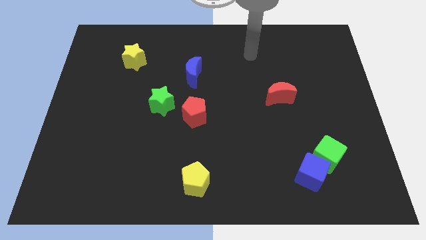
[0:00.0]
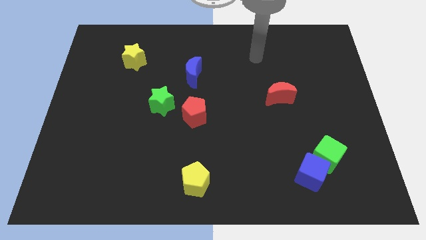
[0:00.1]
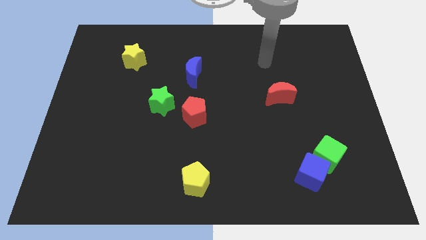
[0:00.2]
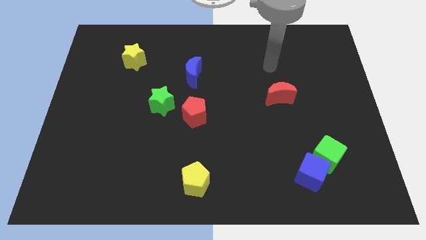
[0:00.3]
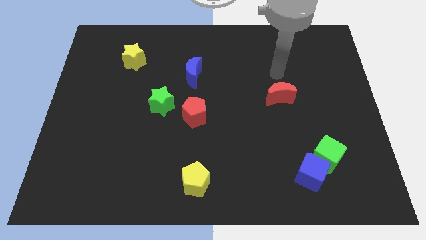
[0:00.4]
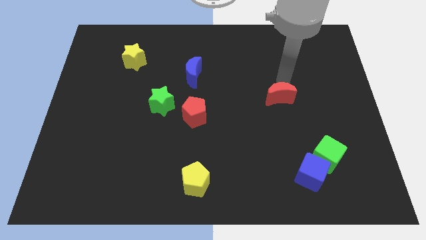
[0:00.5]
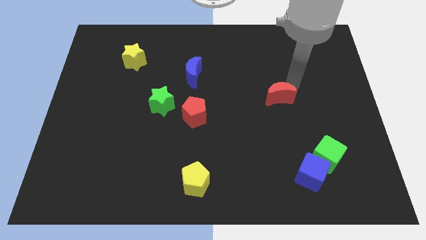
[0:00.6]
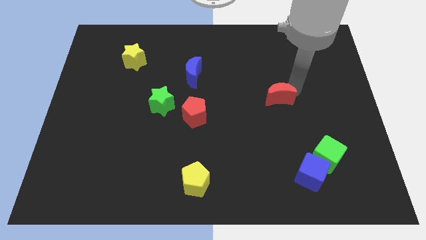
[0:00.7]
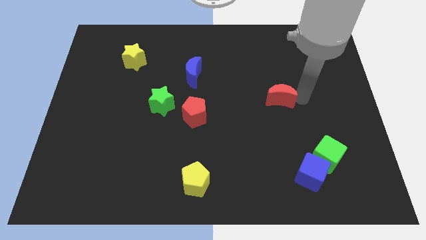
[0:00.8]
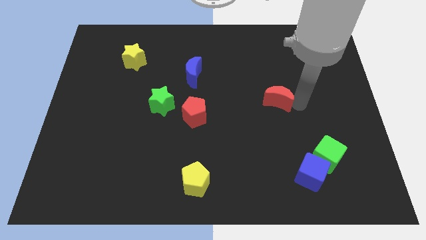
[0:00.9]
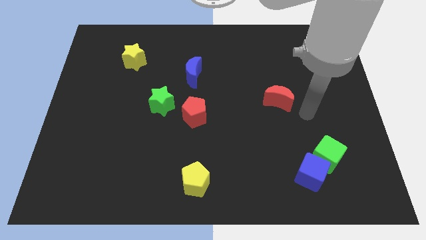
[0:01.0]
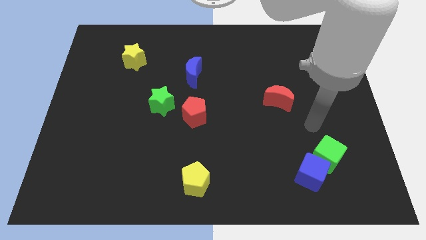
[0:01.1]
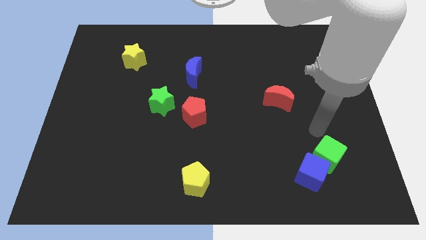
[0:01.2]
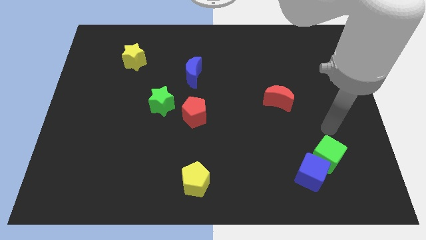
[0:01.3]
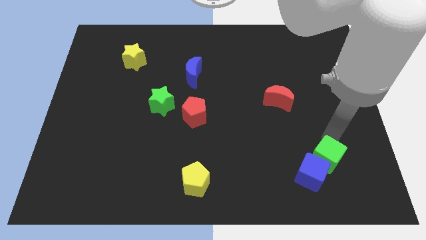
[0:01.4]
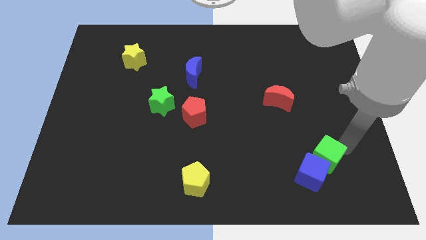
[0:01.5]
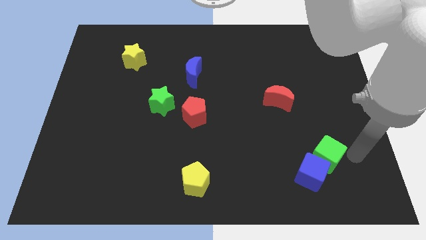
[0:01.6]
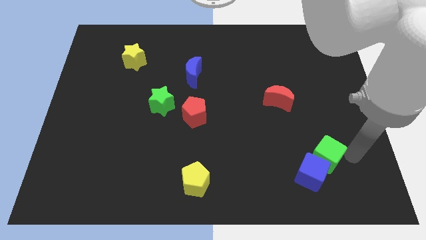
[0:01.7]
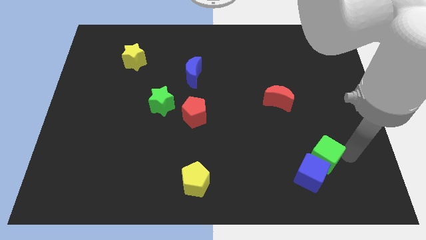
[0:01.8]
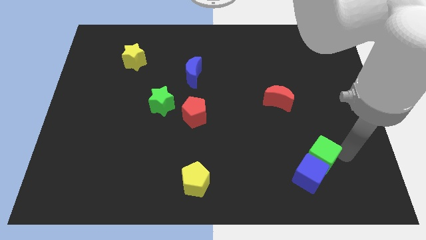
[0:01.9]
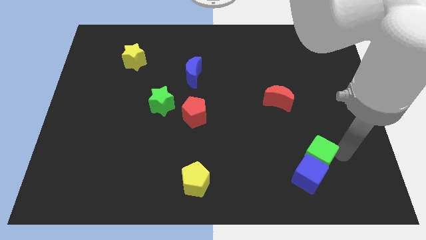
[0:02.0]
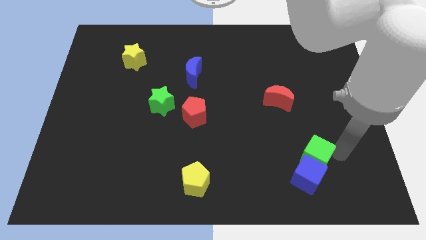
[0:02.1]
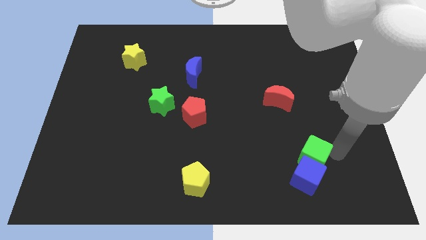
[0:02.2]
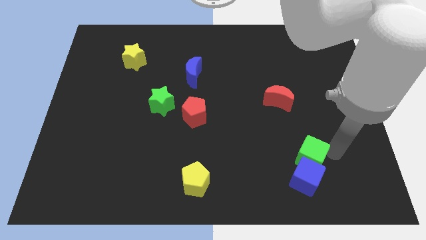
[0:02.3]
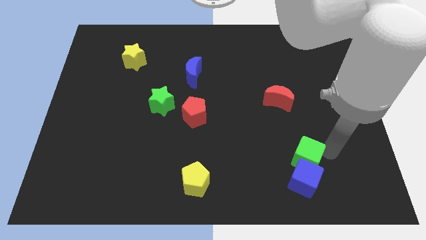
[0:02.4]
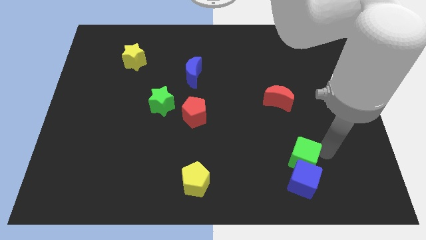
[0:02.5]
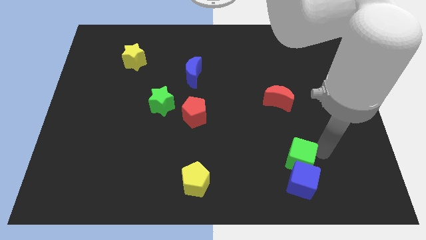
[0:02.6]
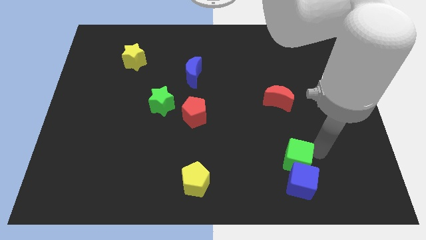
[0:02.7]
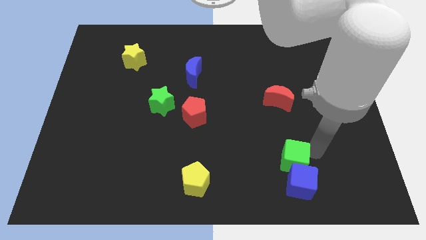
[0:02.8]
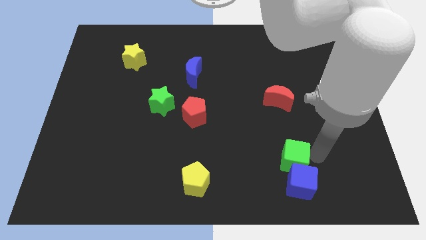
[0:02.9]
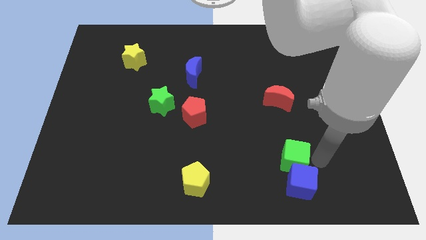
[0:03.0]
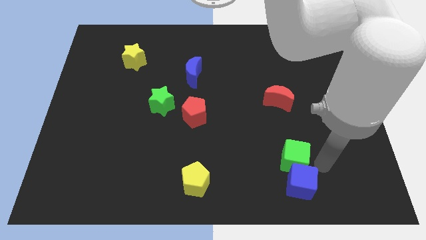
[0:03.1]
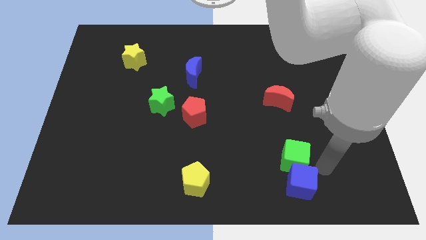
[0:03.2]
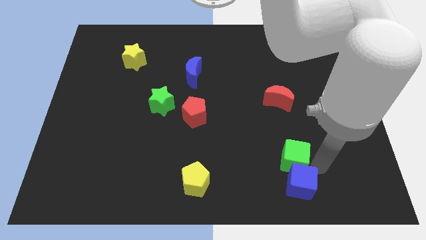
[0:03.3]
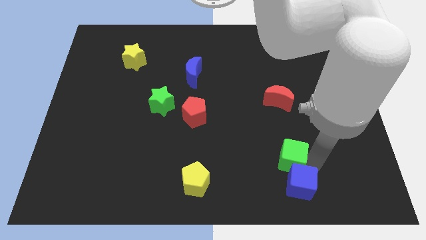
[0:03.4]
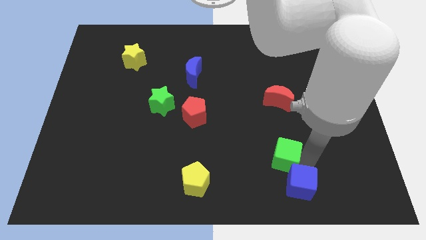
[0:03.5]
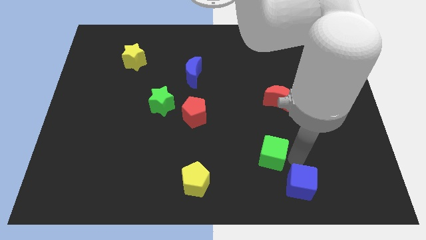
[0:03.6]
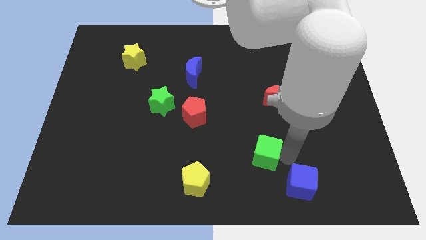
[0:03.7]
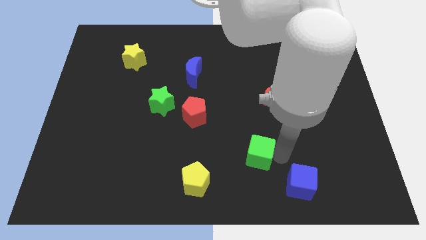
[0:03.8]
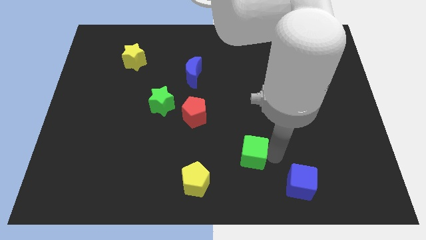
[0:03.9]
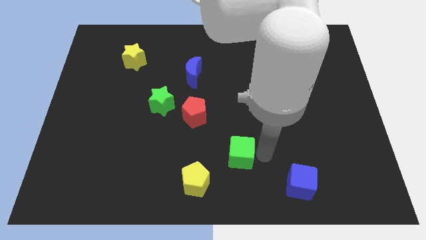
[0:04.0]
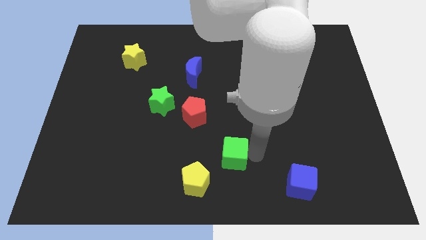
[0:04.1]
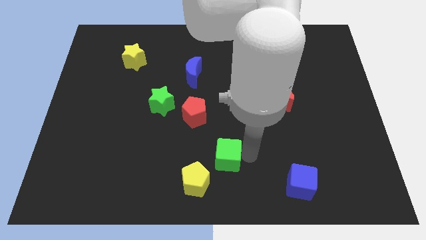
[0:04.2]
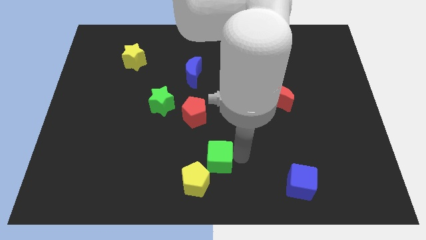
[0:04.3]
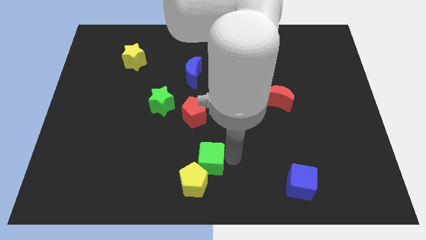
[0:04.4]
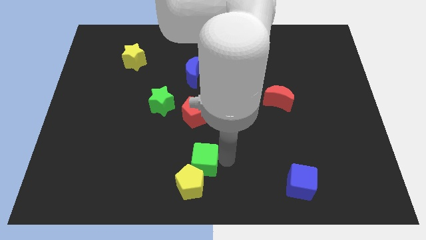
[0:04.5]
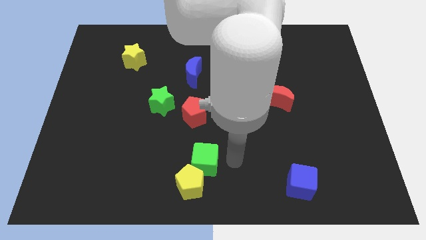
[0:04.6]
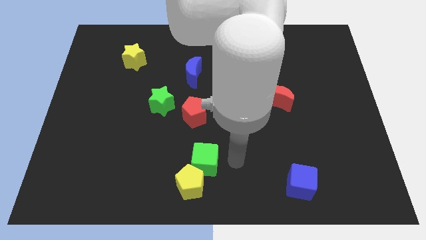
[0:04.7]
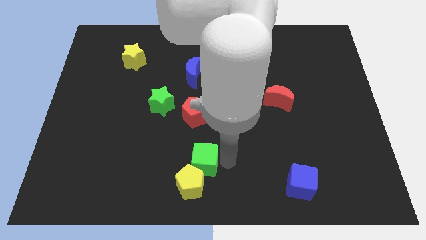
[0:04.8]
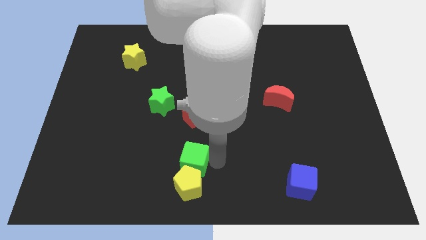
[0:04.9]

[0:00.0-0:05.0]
push the green cube to the top left side of the yellow pentagon

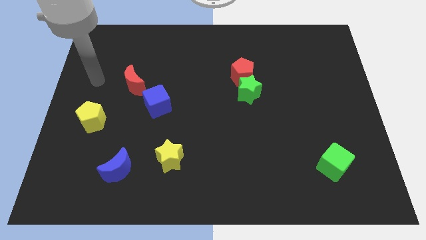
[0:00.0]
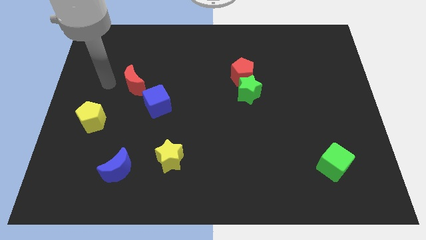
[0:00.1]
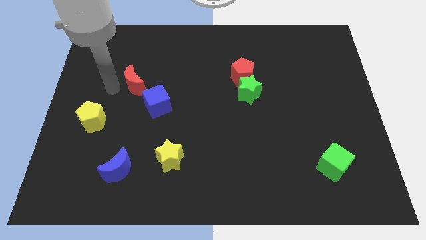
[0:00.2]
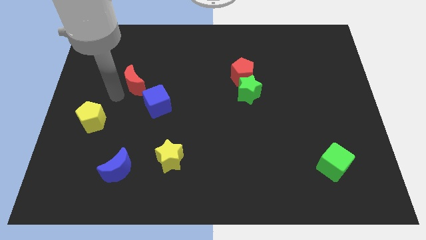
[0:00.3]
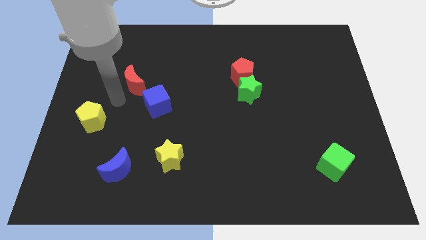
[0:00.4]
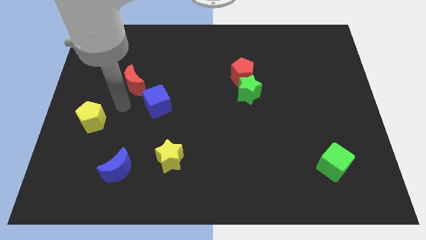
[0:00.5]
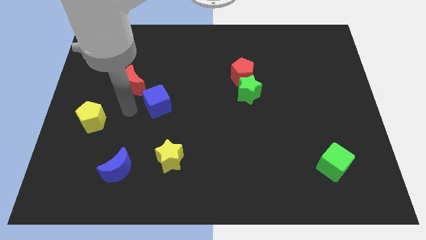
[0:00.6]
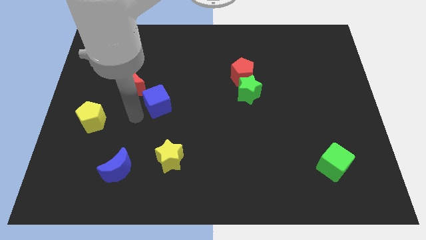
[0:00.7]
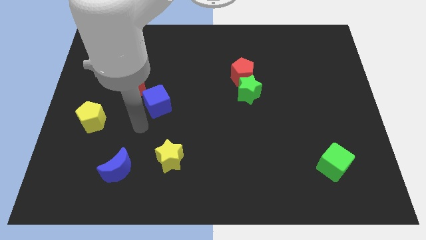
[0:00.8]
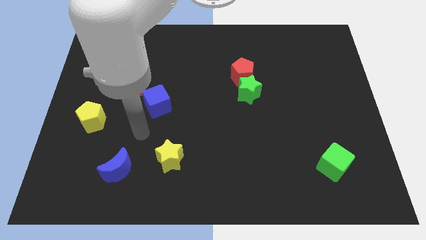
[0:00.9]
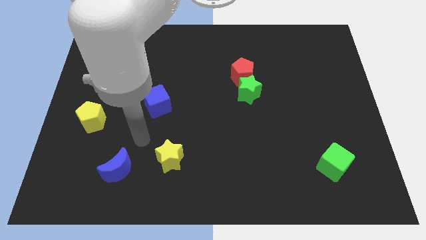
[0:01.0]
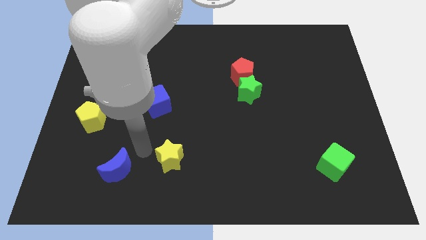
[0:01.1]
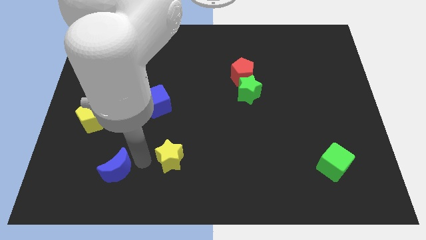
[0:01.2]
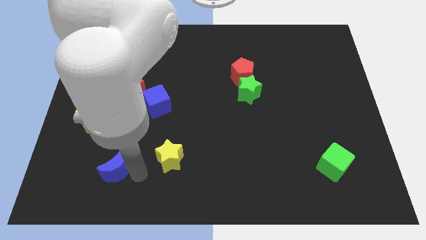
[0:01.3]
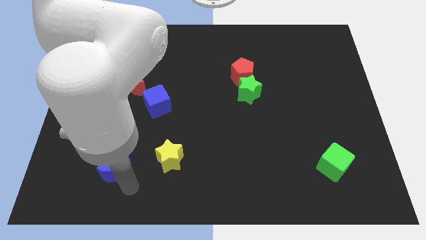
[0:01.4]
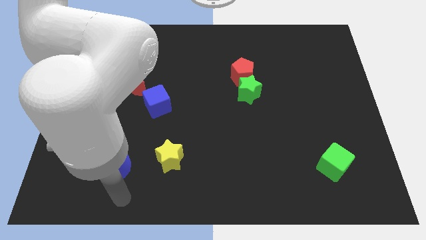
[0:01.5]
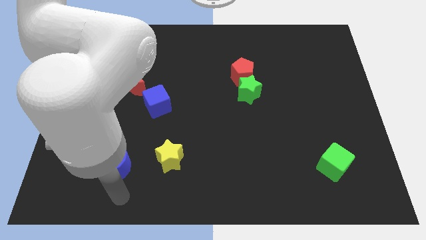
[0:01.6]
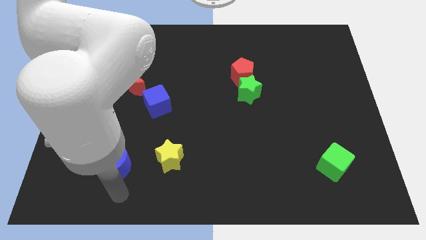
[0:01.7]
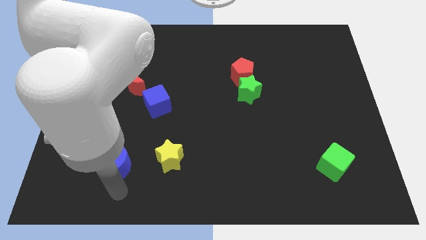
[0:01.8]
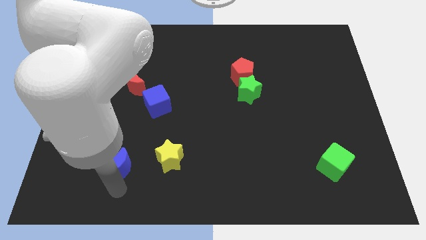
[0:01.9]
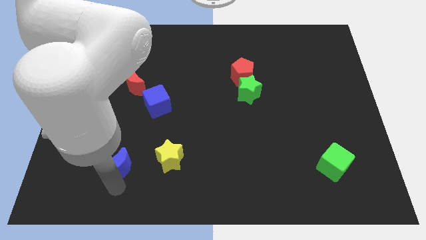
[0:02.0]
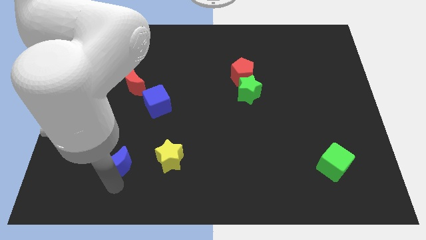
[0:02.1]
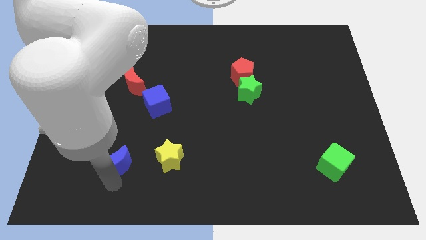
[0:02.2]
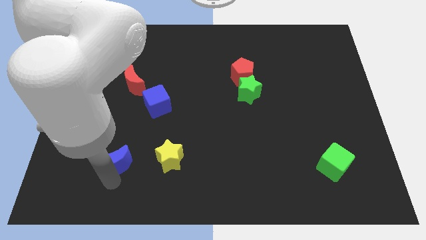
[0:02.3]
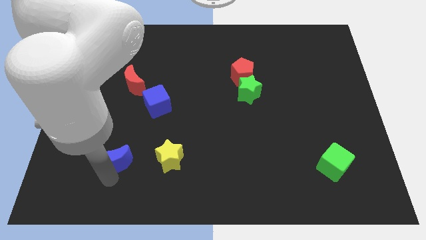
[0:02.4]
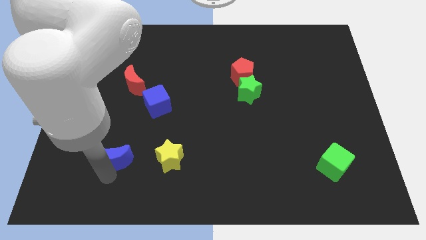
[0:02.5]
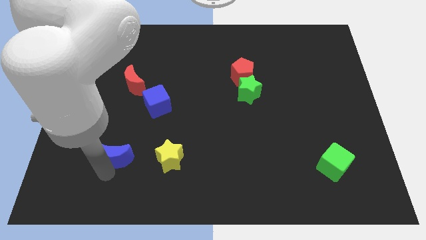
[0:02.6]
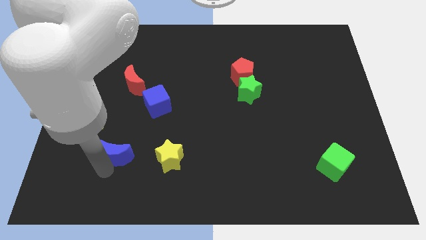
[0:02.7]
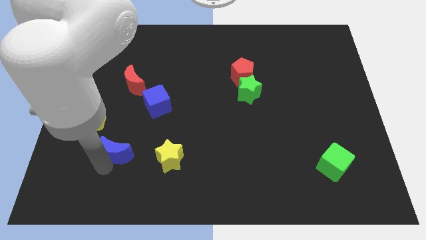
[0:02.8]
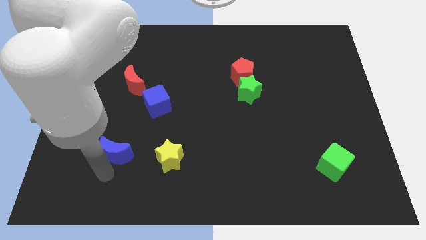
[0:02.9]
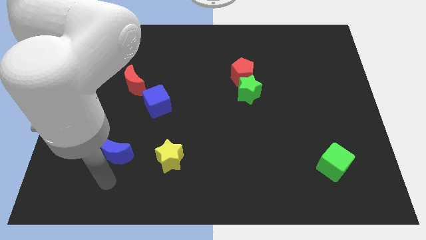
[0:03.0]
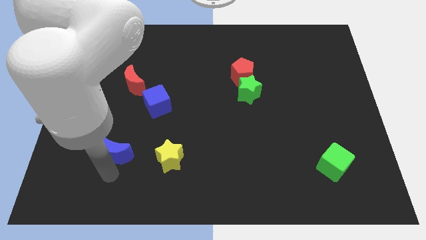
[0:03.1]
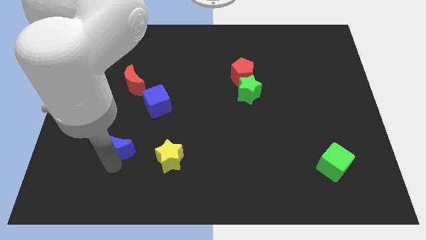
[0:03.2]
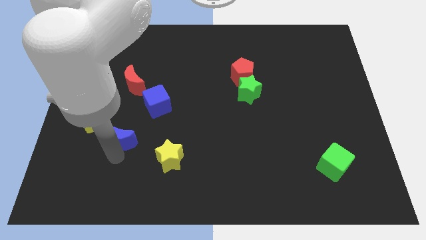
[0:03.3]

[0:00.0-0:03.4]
push the blue moon to the bottom side of the red moon
